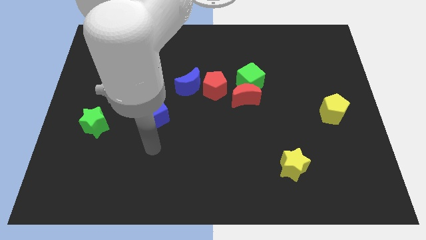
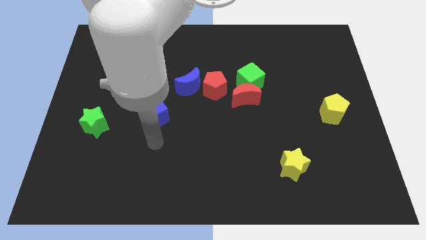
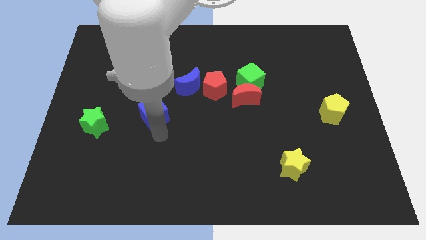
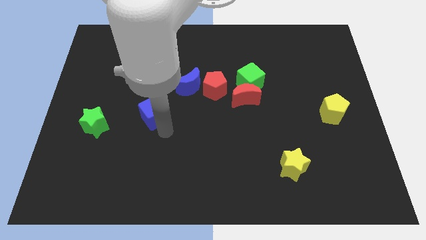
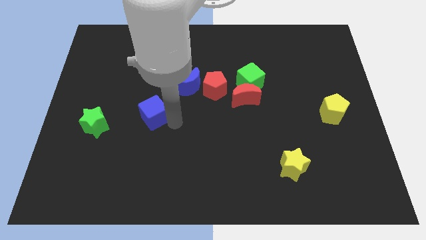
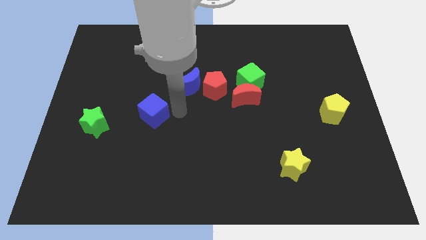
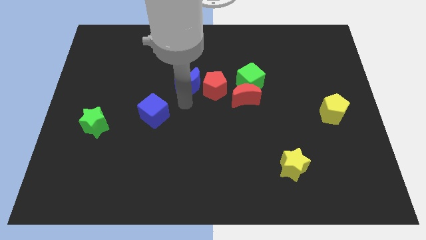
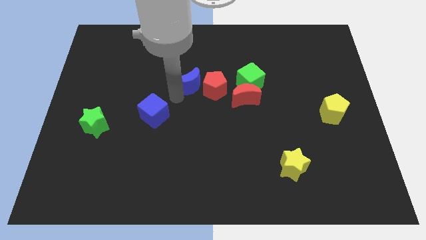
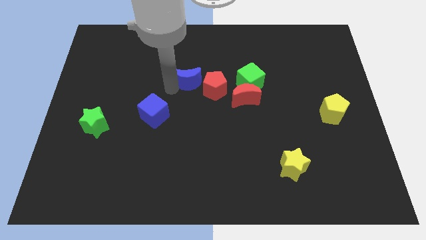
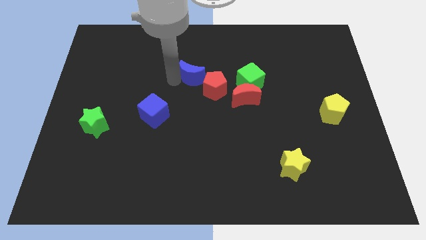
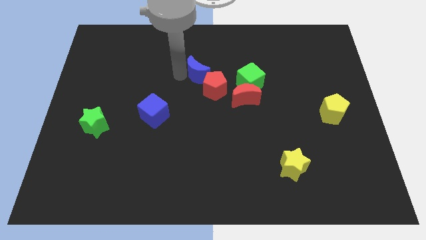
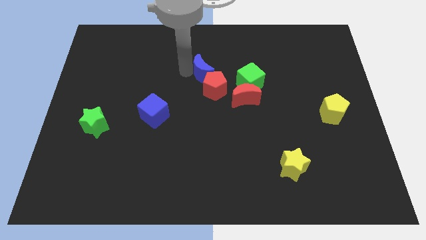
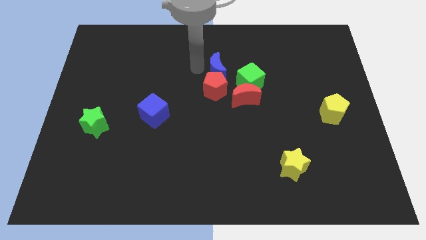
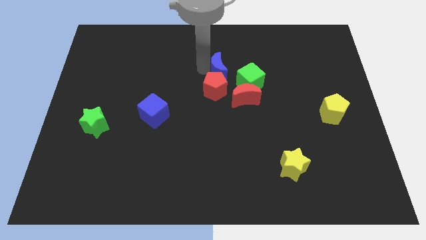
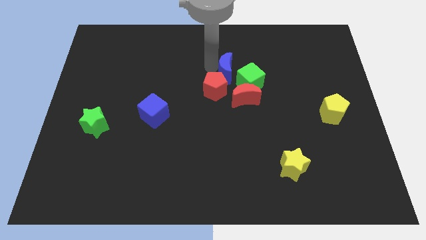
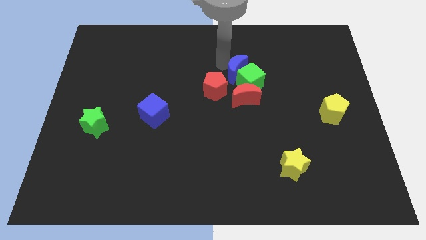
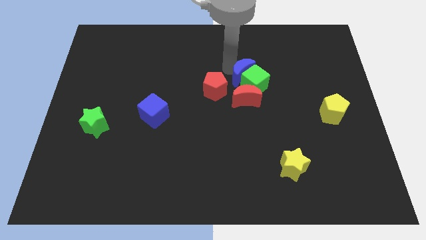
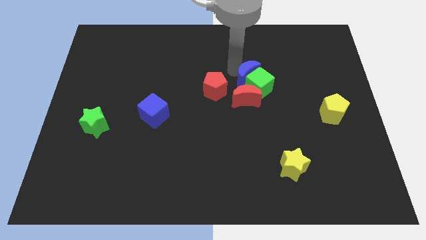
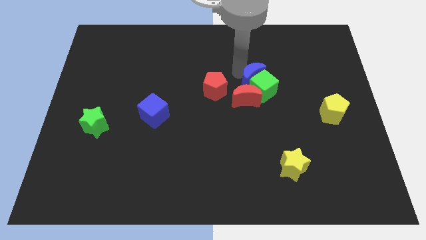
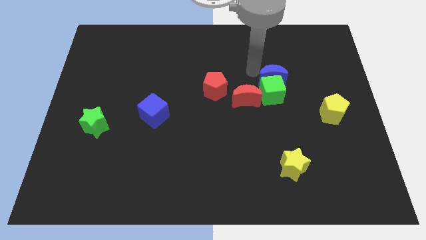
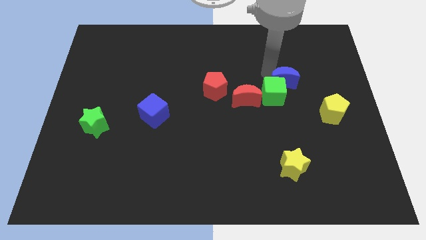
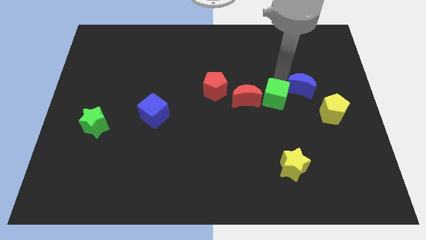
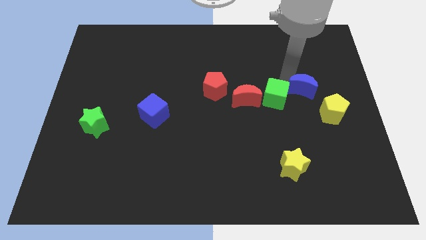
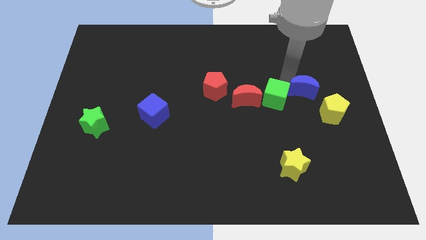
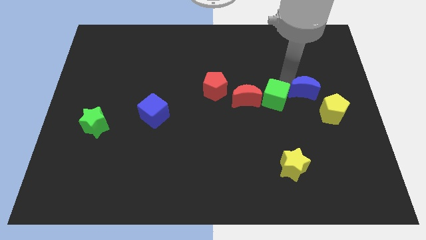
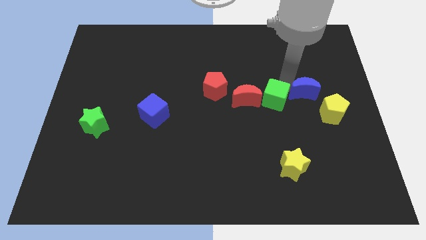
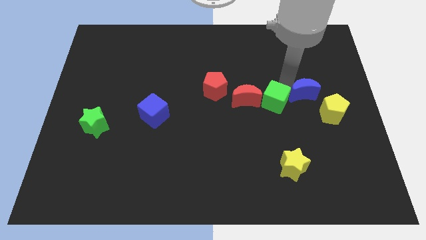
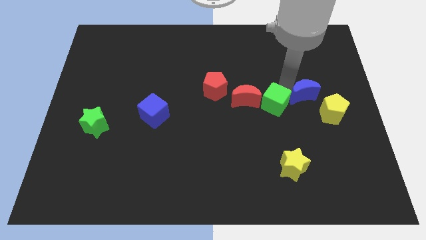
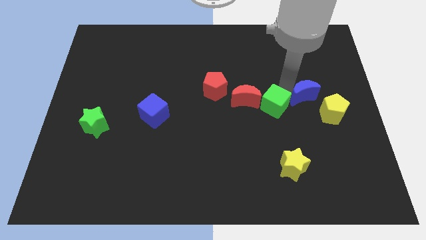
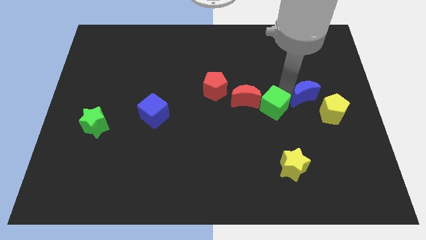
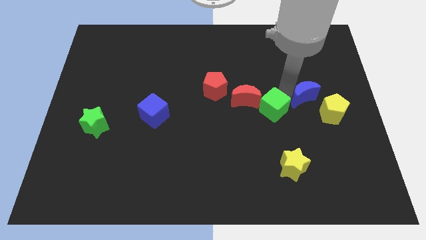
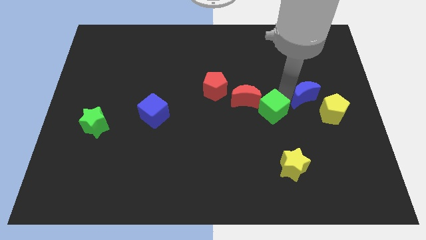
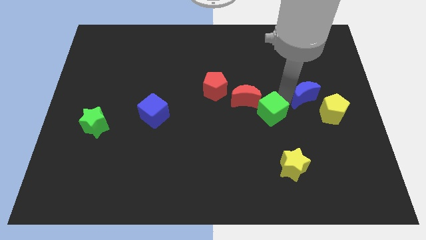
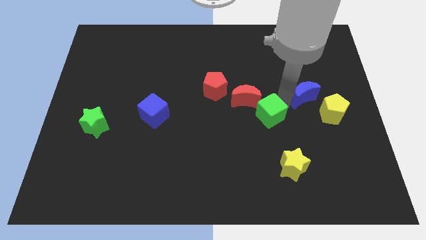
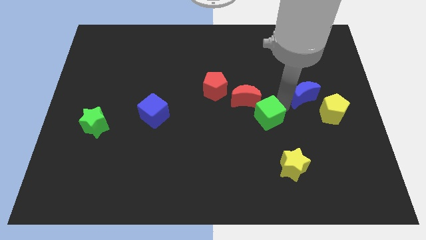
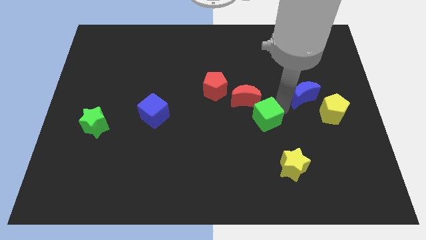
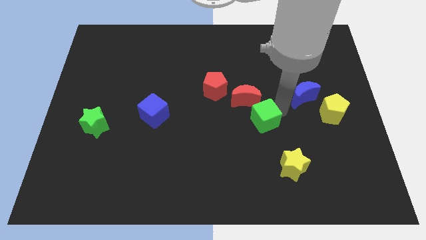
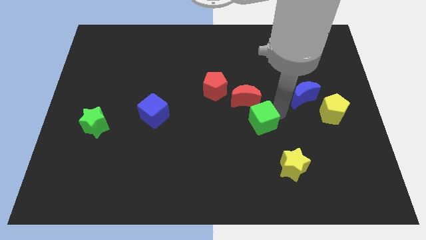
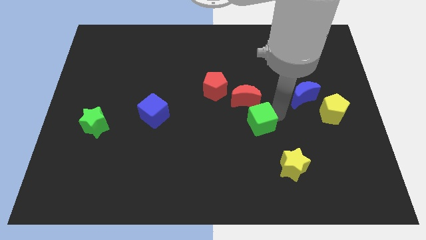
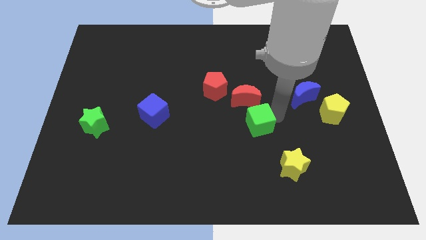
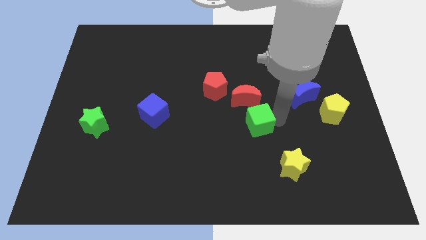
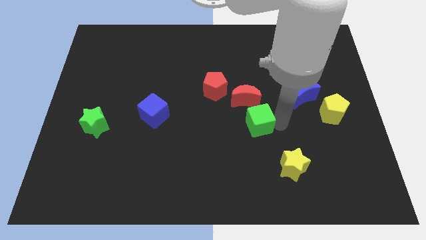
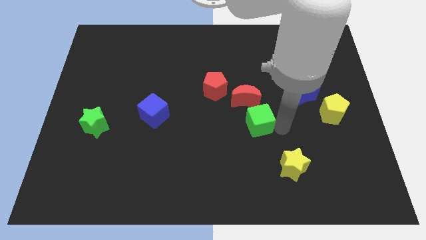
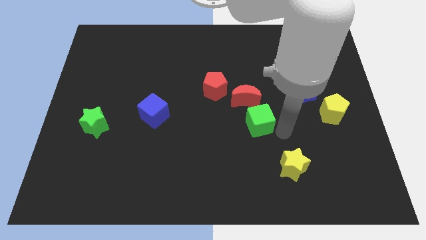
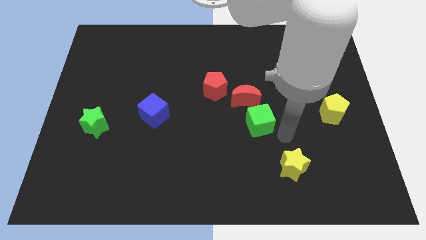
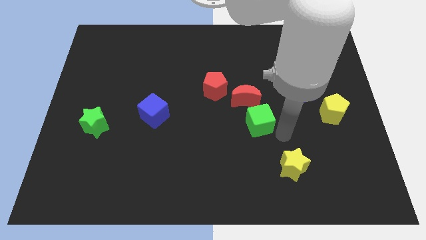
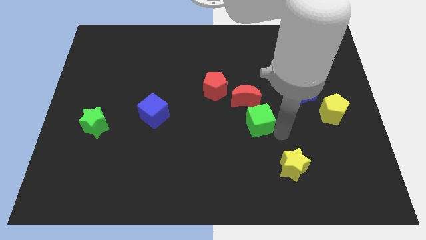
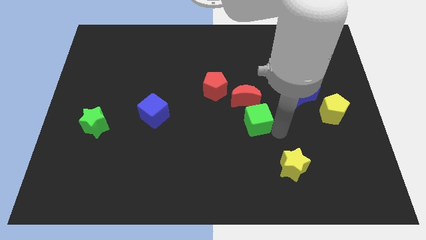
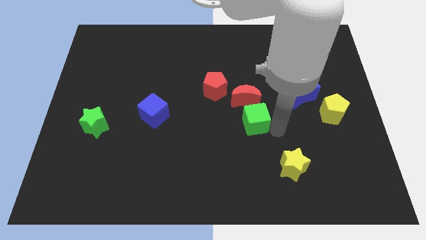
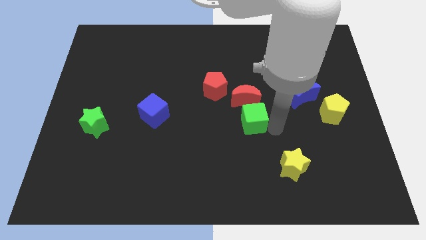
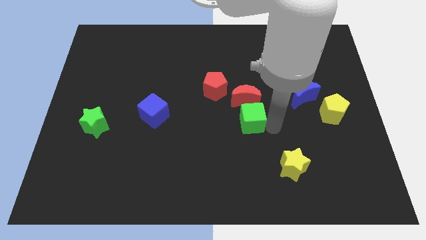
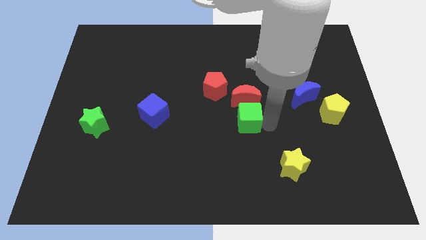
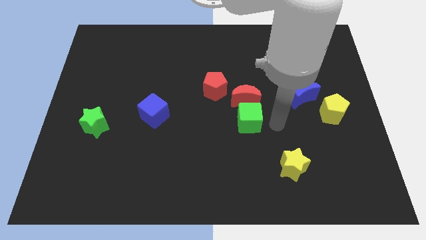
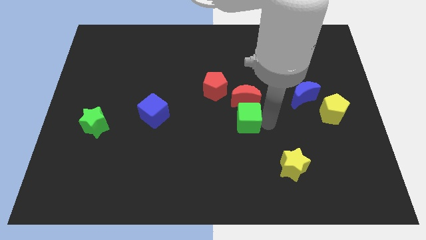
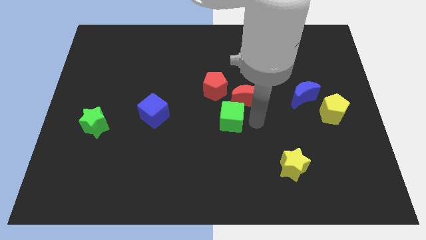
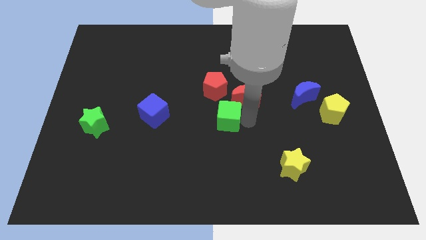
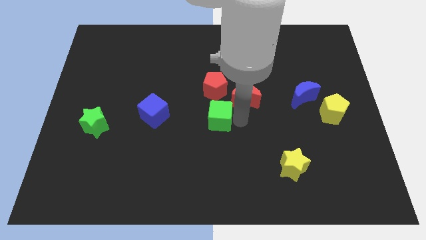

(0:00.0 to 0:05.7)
push the green cube right of the blue cube

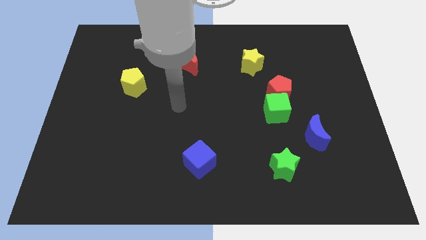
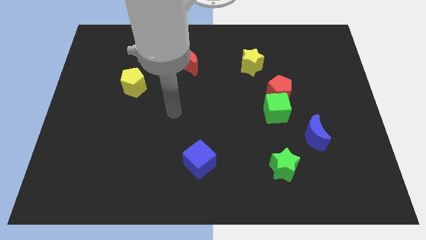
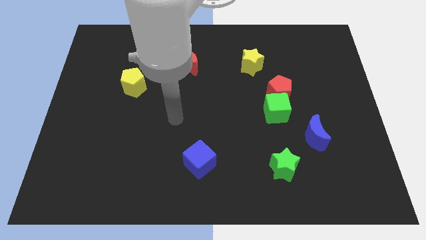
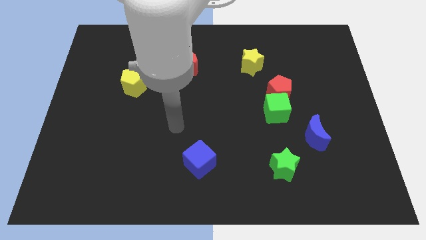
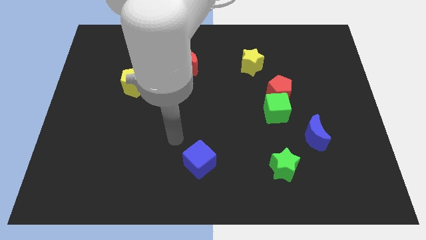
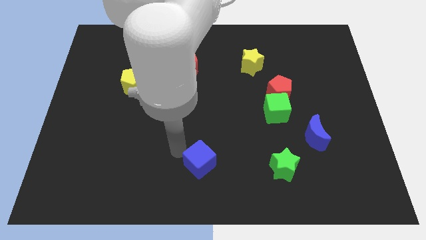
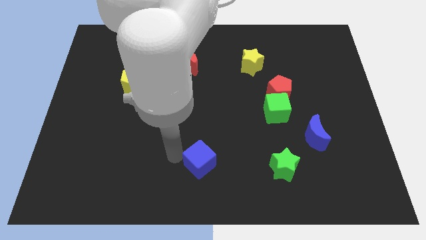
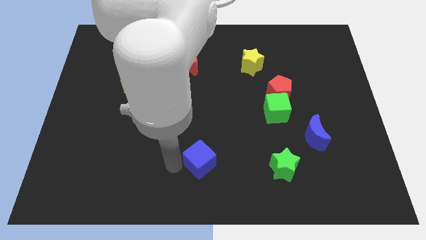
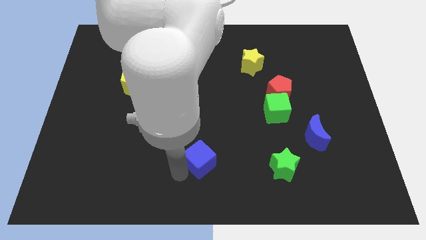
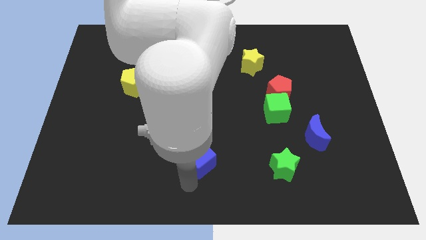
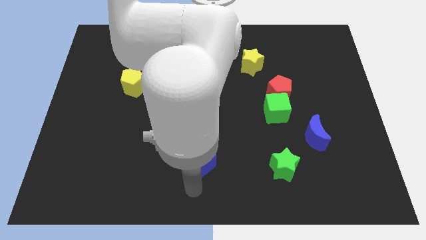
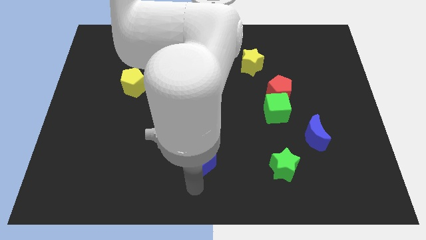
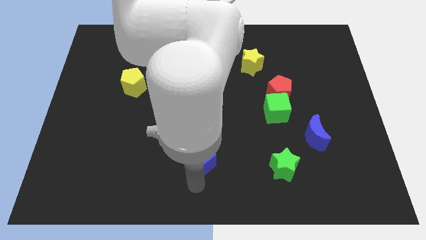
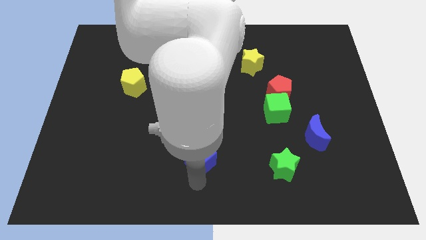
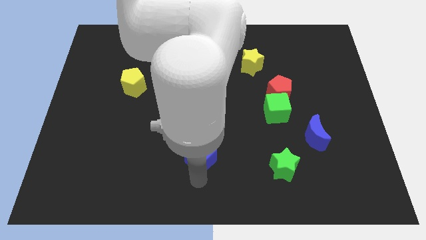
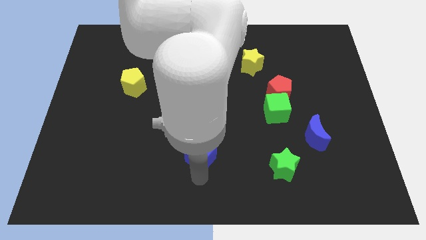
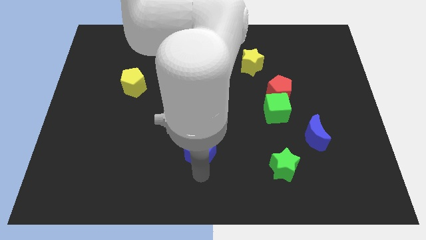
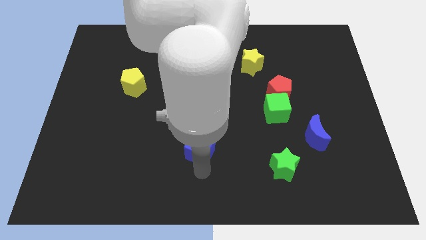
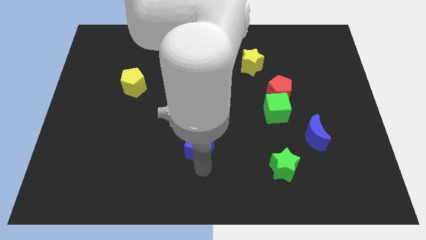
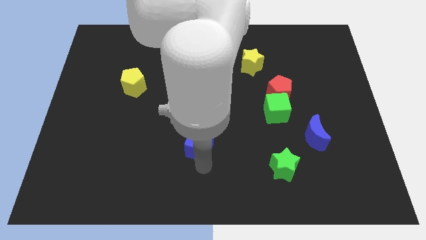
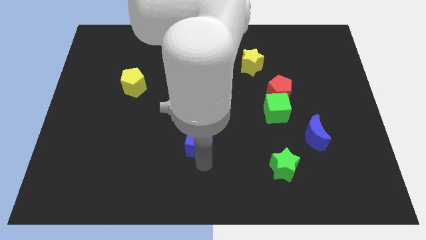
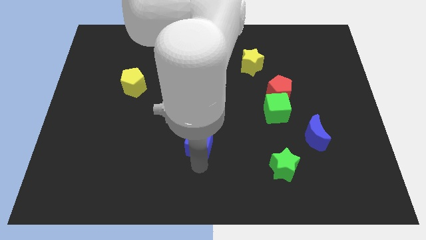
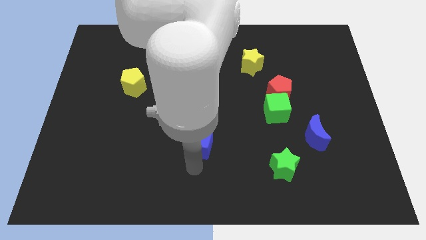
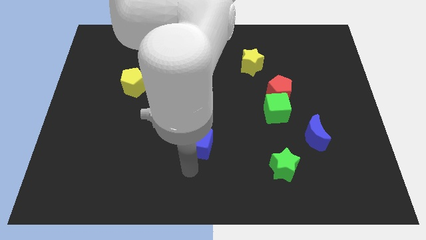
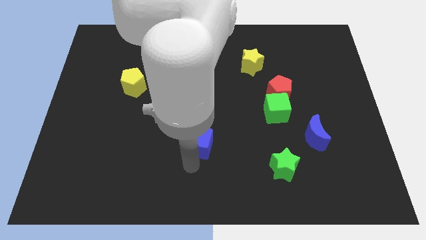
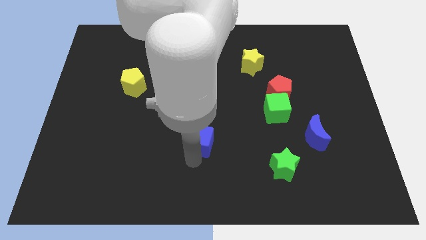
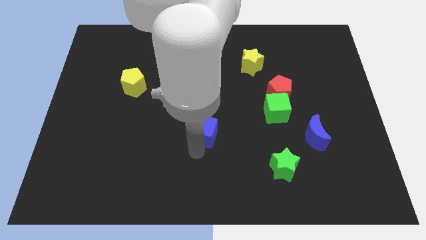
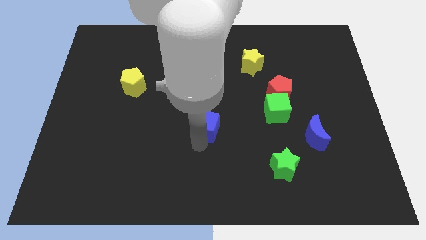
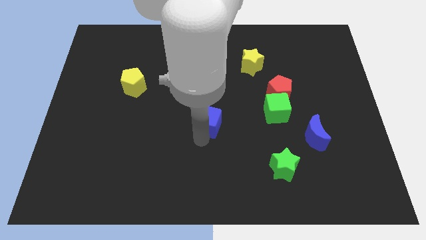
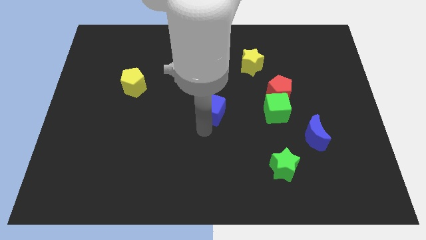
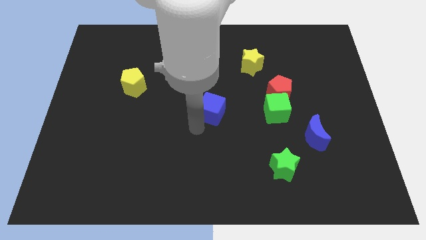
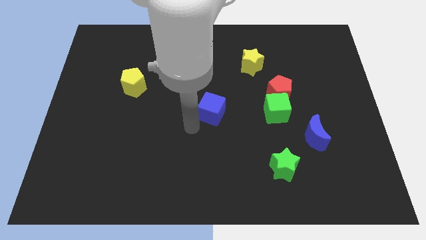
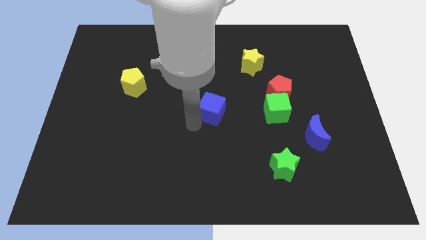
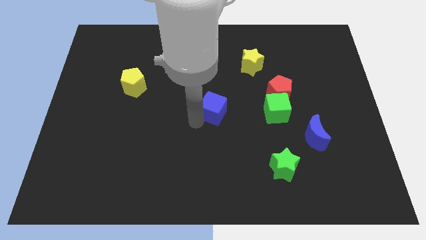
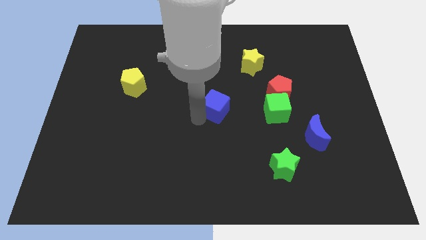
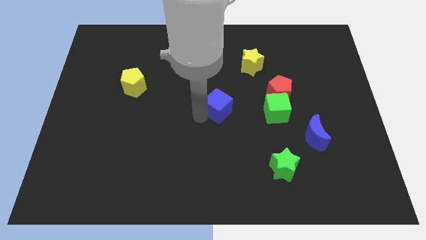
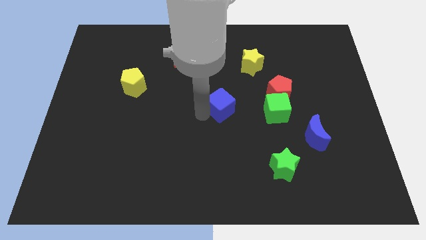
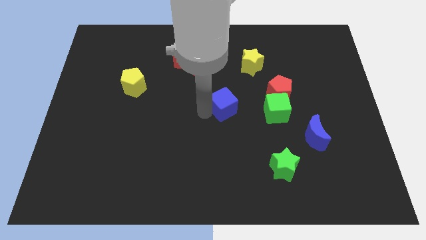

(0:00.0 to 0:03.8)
put the blue cube to the left of the red pentagon
